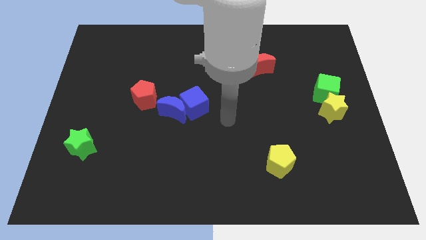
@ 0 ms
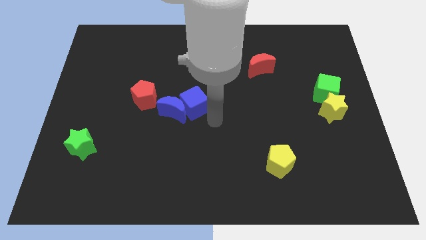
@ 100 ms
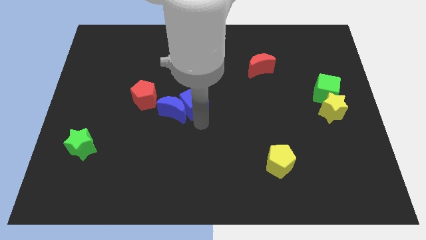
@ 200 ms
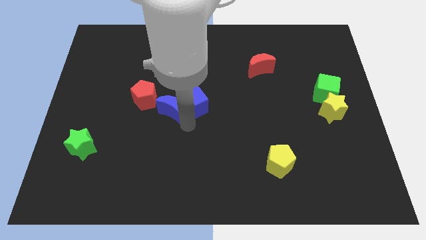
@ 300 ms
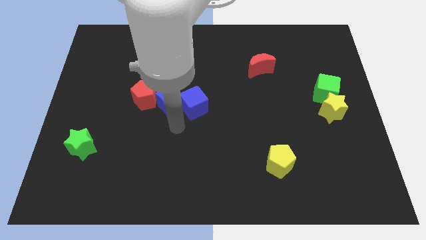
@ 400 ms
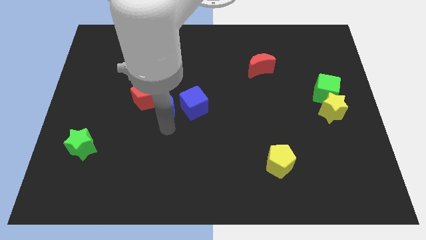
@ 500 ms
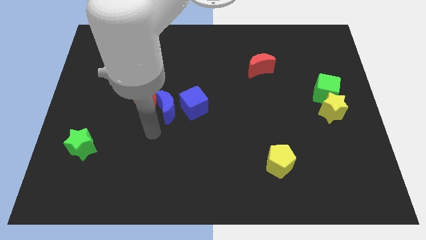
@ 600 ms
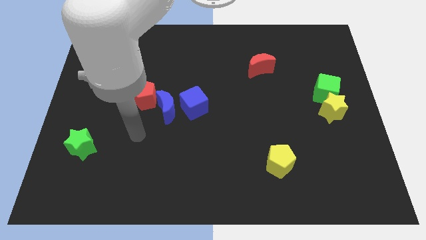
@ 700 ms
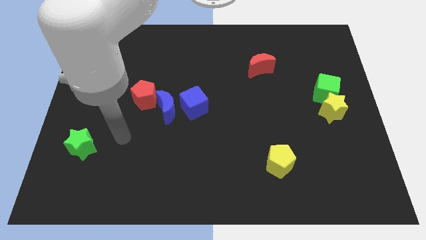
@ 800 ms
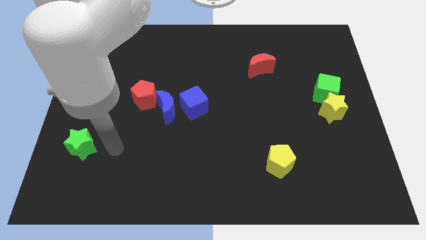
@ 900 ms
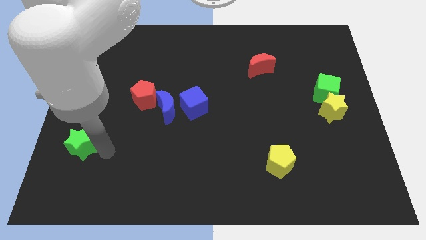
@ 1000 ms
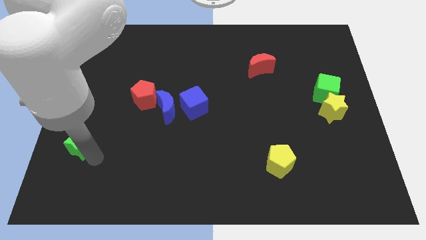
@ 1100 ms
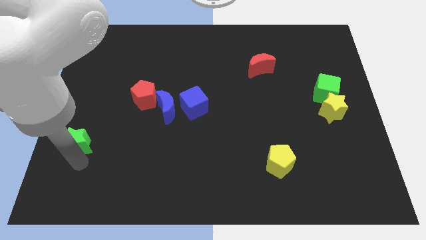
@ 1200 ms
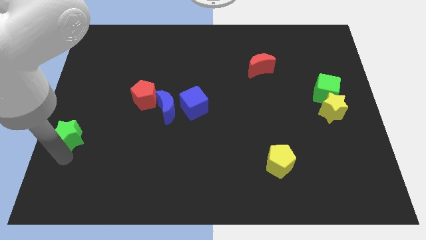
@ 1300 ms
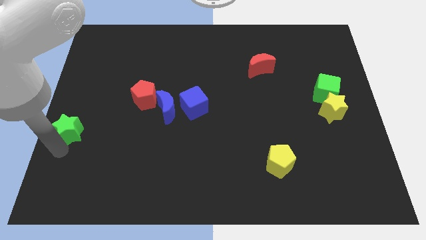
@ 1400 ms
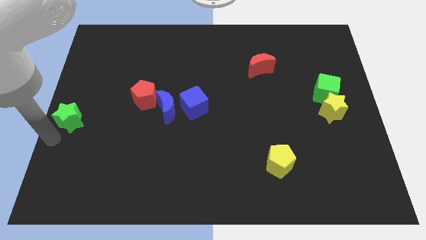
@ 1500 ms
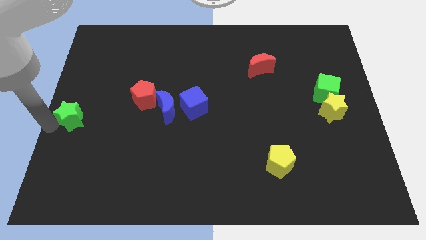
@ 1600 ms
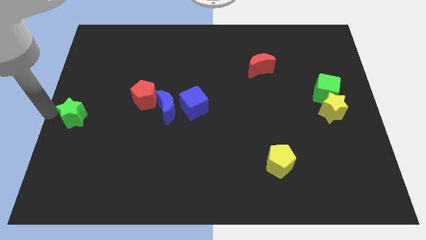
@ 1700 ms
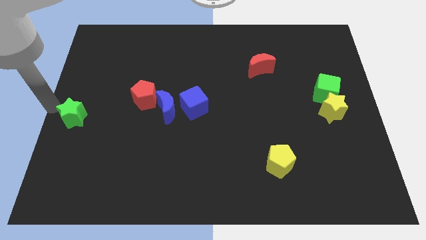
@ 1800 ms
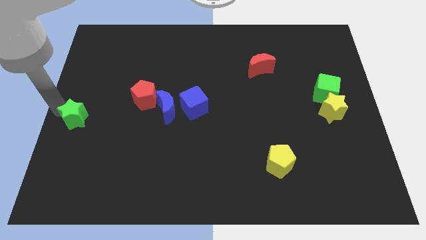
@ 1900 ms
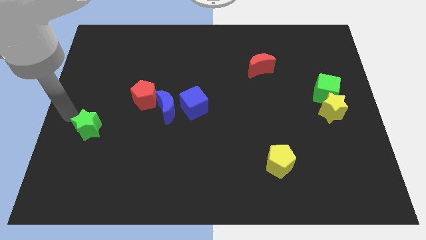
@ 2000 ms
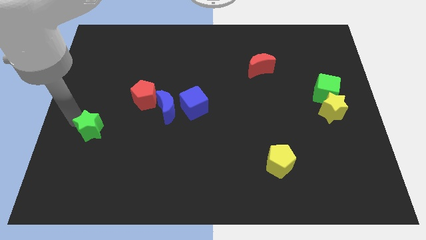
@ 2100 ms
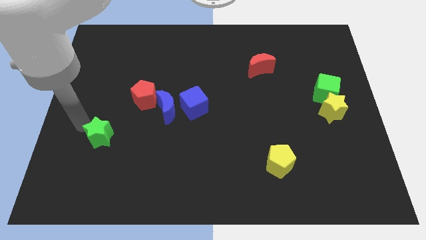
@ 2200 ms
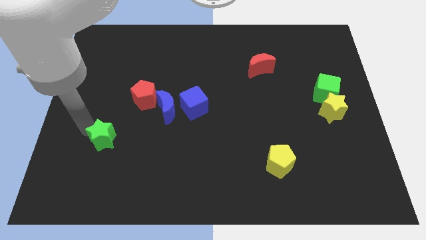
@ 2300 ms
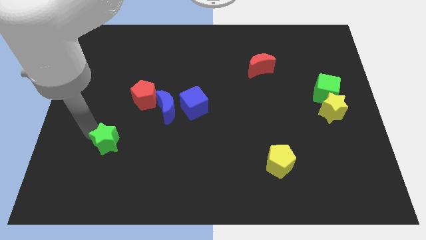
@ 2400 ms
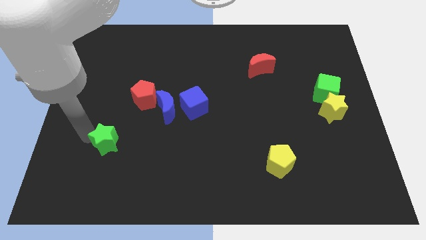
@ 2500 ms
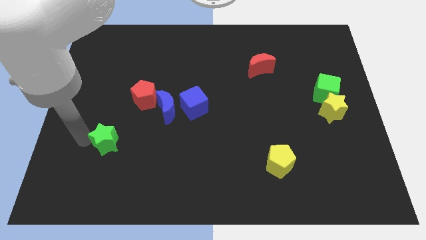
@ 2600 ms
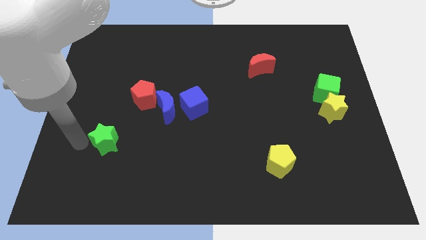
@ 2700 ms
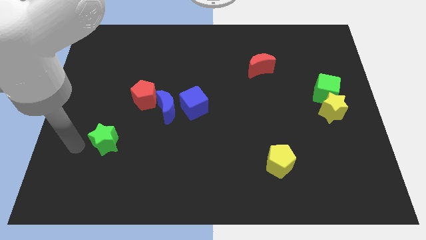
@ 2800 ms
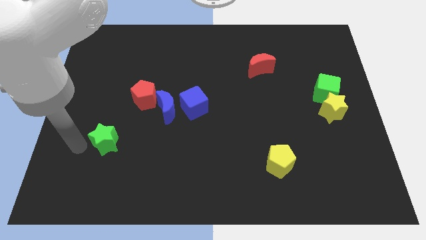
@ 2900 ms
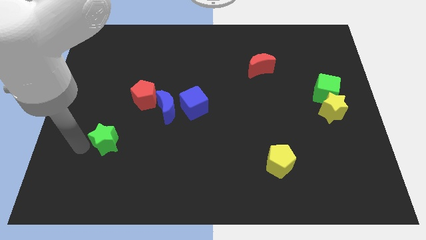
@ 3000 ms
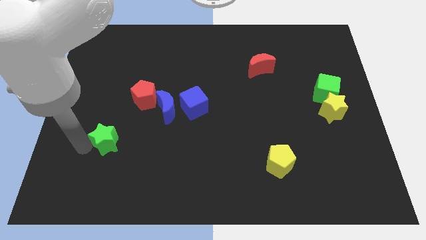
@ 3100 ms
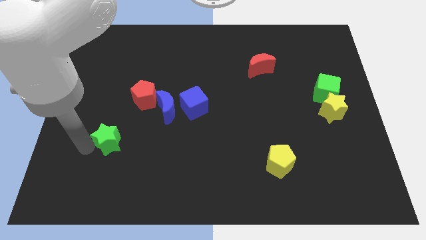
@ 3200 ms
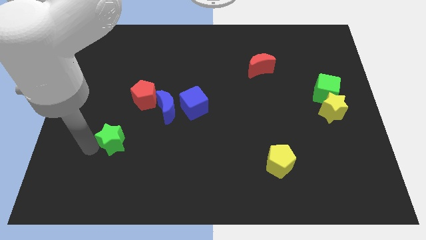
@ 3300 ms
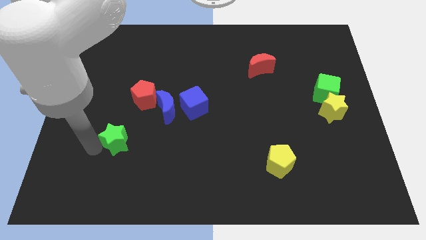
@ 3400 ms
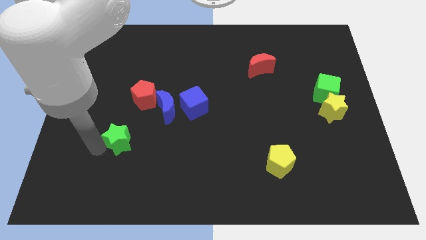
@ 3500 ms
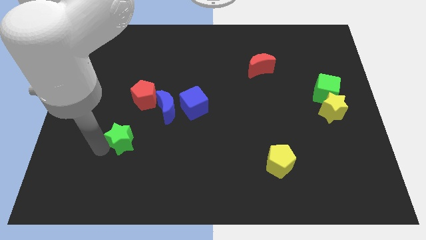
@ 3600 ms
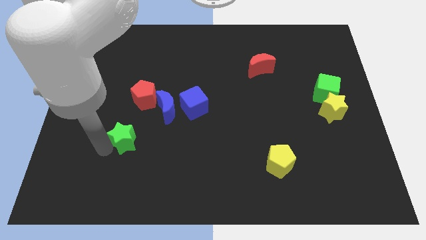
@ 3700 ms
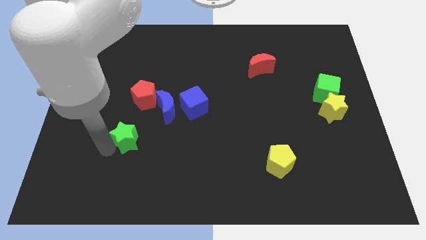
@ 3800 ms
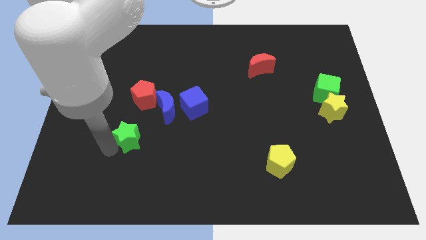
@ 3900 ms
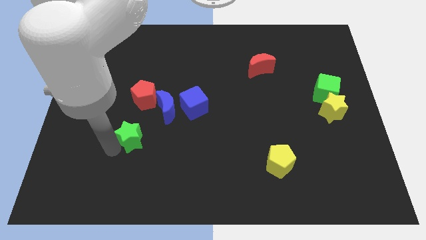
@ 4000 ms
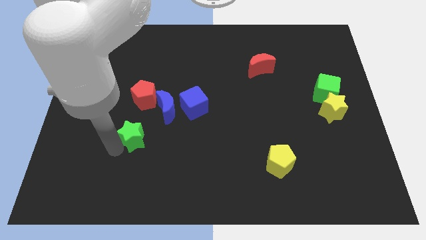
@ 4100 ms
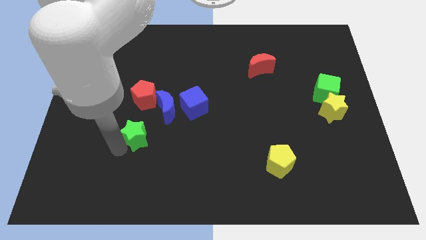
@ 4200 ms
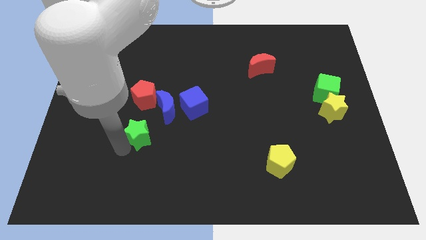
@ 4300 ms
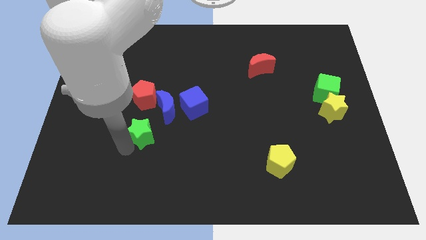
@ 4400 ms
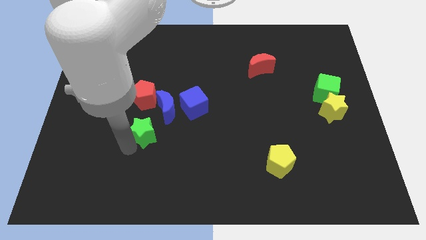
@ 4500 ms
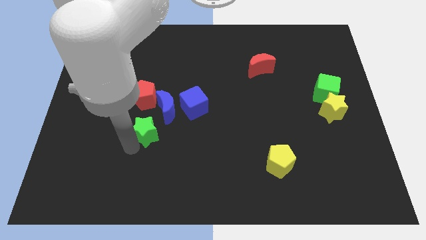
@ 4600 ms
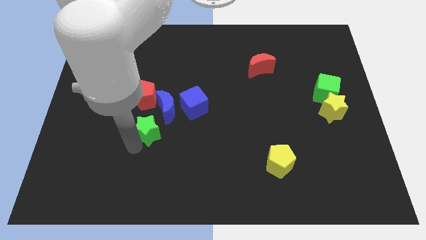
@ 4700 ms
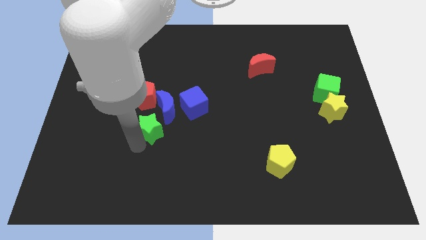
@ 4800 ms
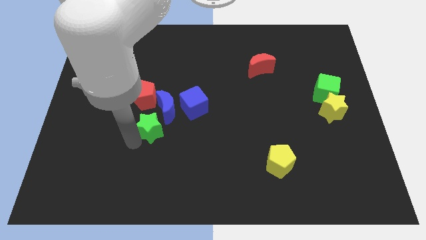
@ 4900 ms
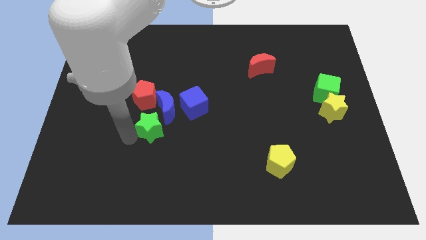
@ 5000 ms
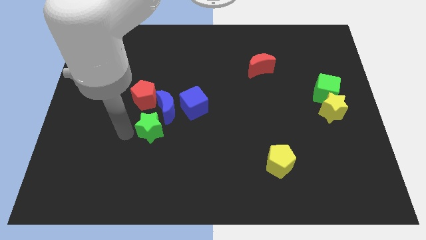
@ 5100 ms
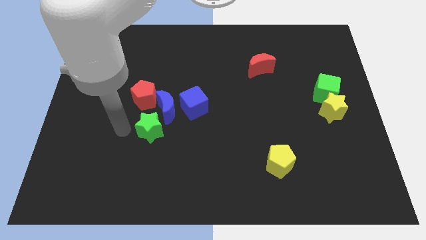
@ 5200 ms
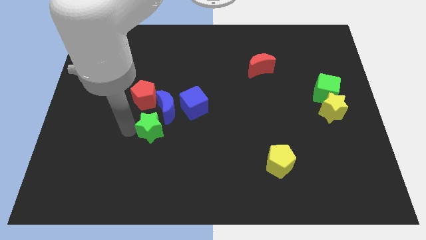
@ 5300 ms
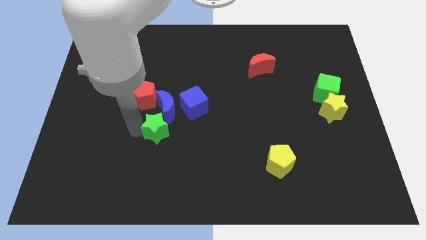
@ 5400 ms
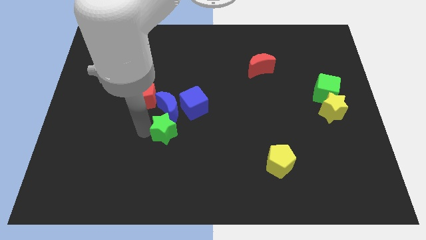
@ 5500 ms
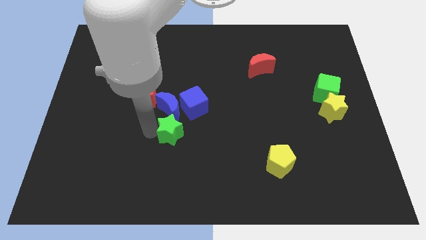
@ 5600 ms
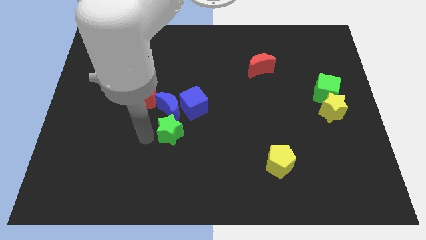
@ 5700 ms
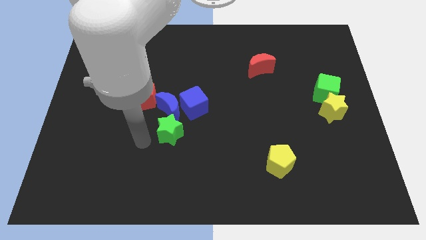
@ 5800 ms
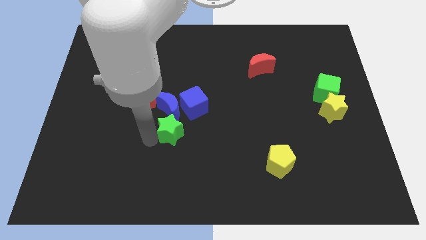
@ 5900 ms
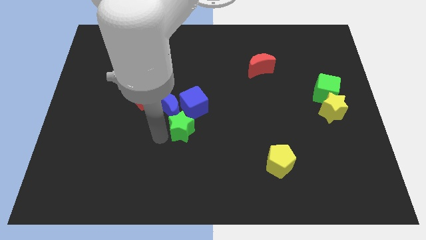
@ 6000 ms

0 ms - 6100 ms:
slide the green star to the middle

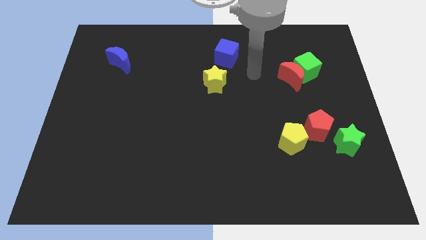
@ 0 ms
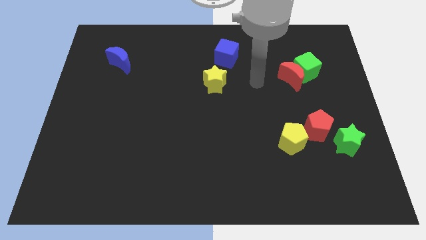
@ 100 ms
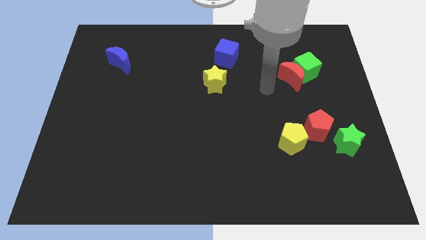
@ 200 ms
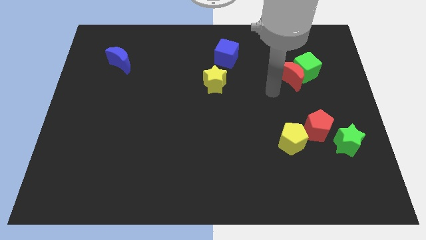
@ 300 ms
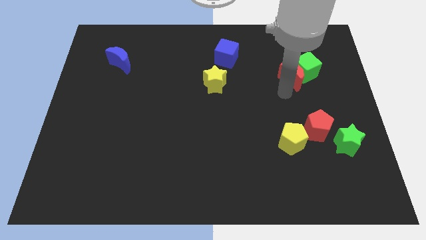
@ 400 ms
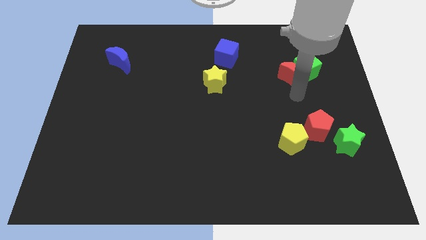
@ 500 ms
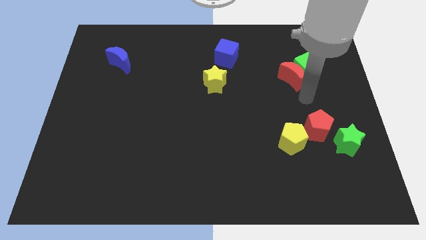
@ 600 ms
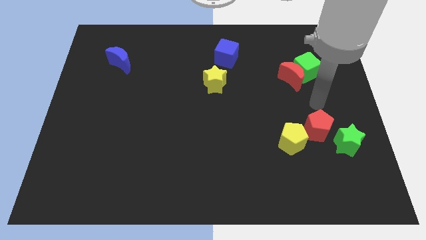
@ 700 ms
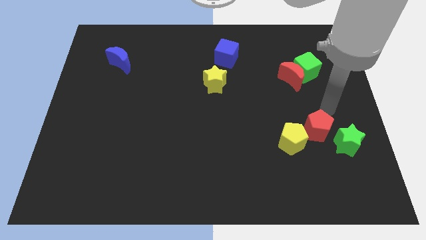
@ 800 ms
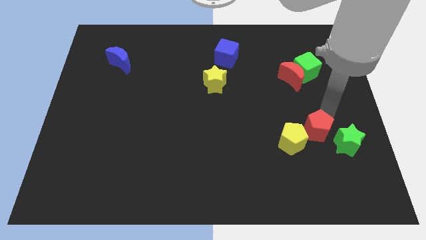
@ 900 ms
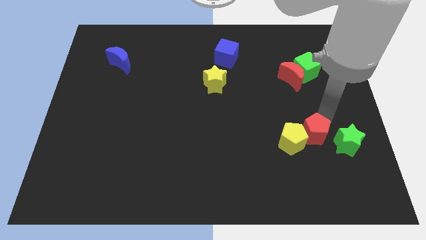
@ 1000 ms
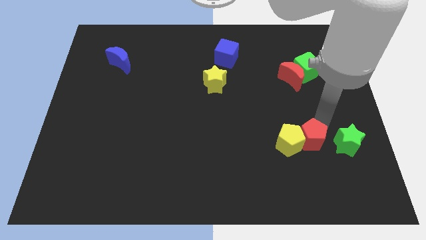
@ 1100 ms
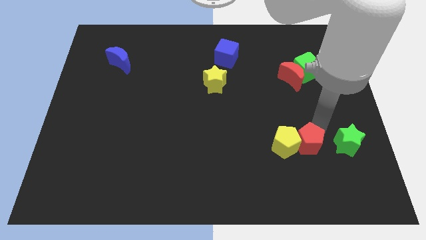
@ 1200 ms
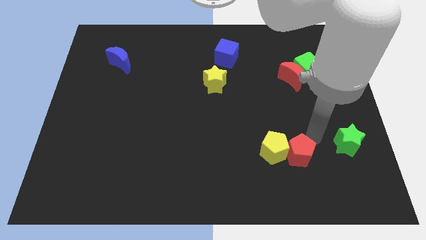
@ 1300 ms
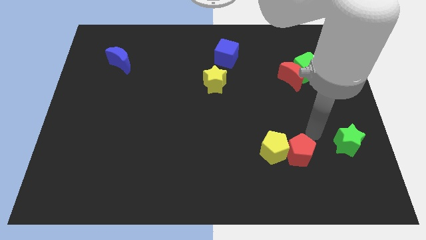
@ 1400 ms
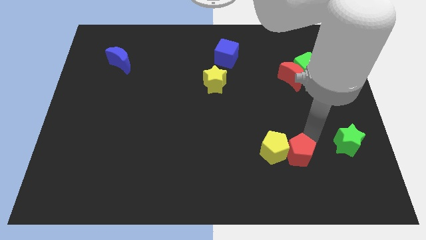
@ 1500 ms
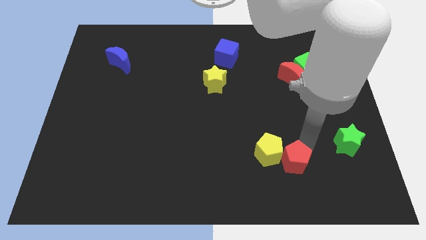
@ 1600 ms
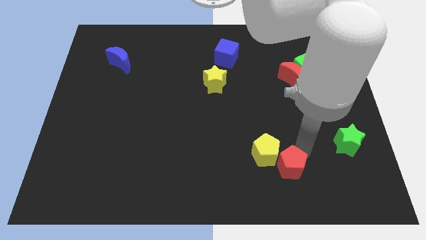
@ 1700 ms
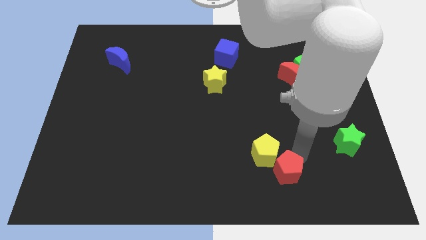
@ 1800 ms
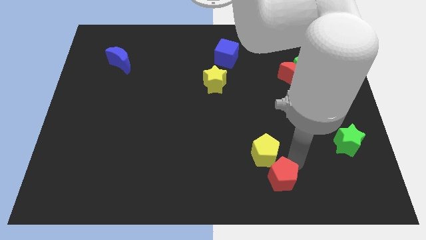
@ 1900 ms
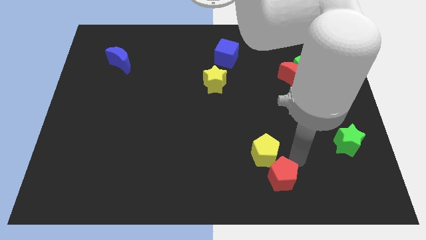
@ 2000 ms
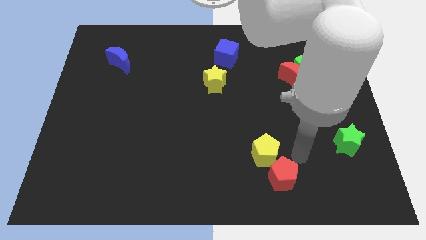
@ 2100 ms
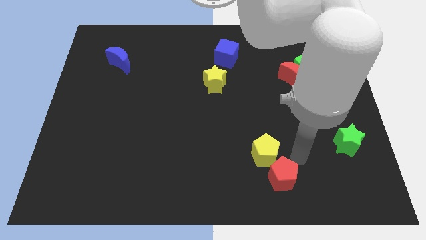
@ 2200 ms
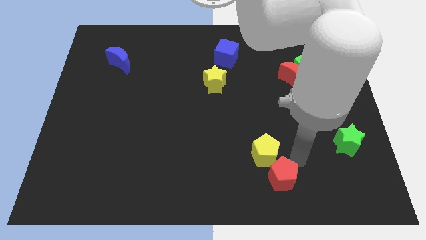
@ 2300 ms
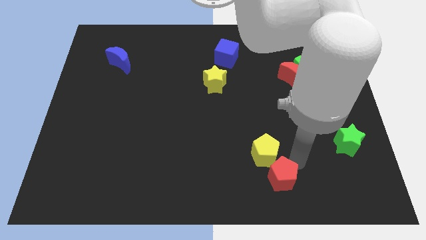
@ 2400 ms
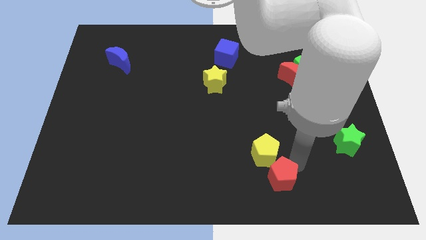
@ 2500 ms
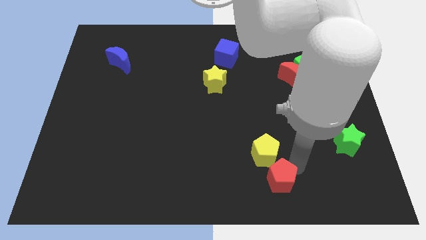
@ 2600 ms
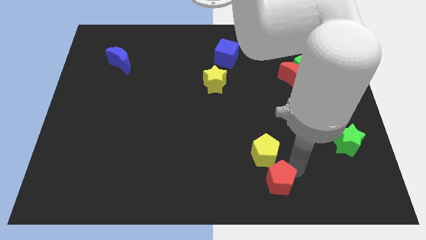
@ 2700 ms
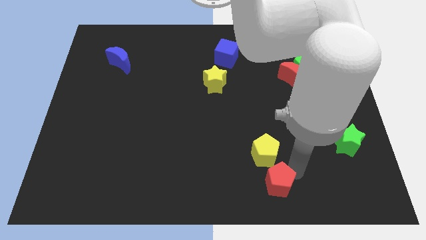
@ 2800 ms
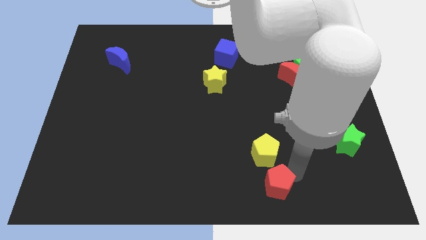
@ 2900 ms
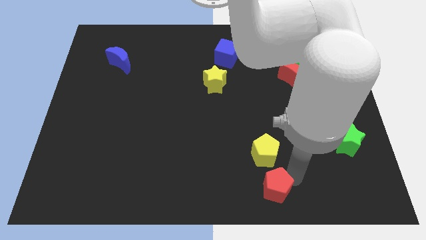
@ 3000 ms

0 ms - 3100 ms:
put the red pentagon to the bottom side
